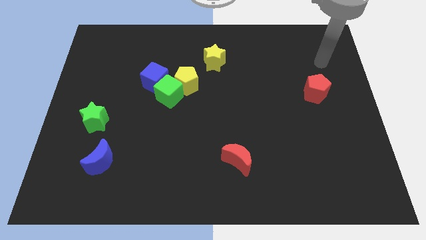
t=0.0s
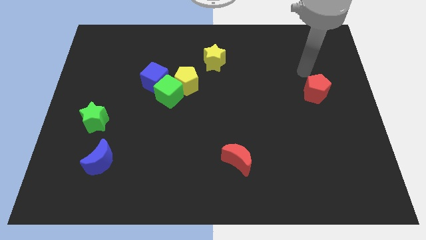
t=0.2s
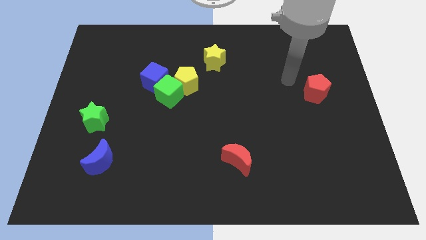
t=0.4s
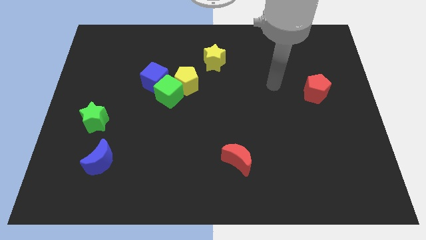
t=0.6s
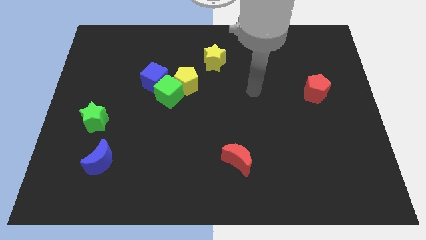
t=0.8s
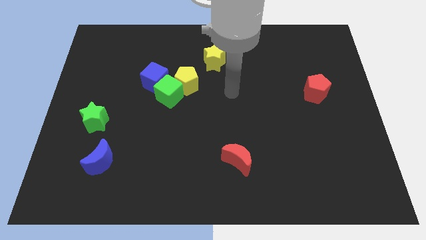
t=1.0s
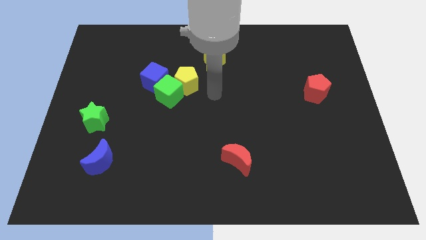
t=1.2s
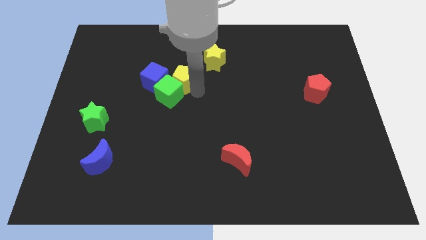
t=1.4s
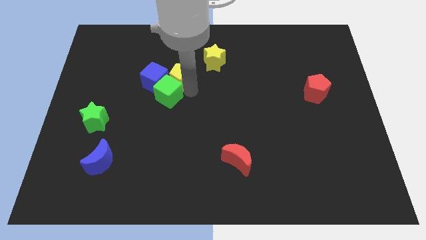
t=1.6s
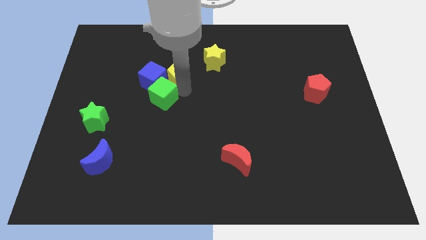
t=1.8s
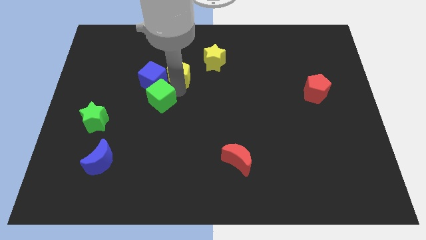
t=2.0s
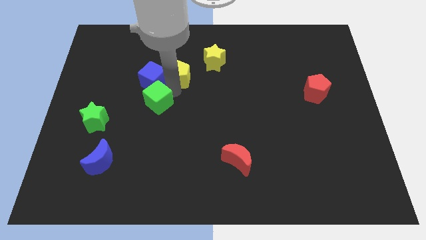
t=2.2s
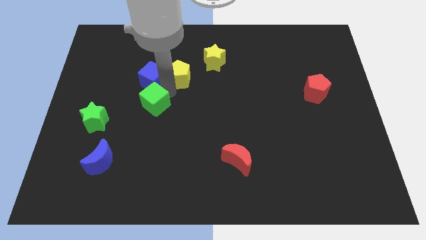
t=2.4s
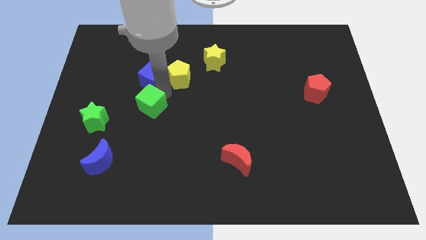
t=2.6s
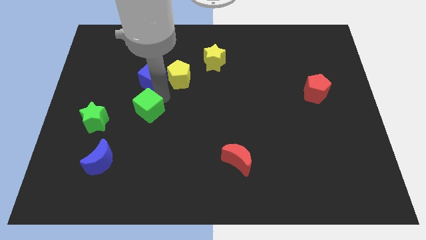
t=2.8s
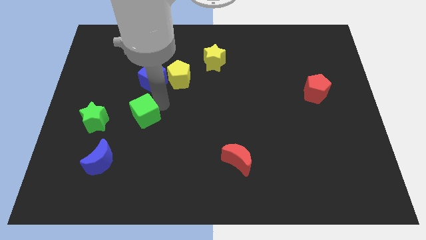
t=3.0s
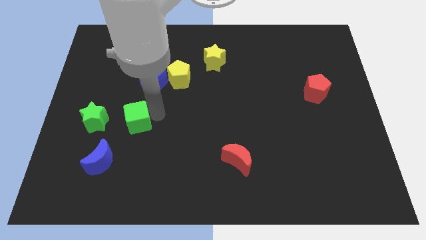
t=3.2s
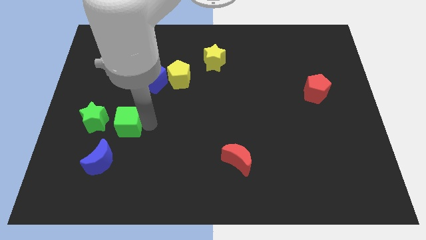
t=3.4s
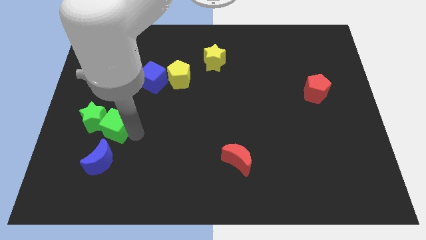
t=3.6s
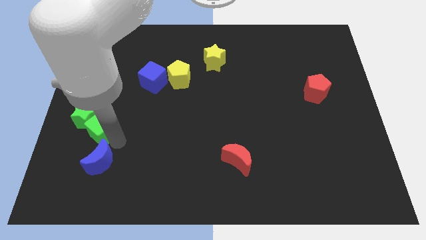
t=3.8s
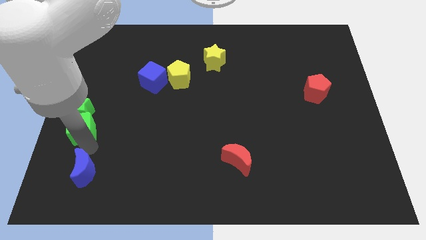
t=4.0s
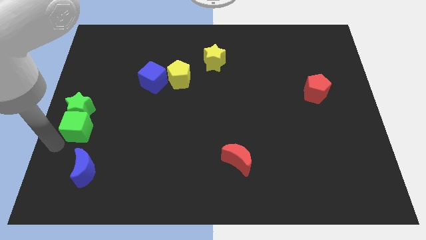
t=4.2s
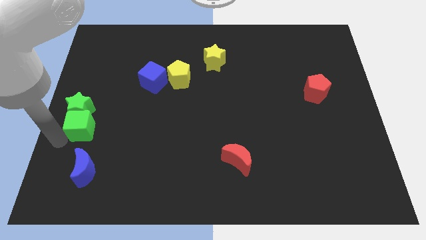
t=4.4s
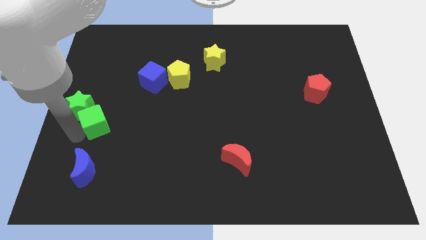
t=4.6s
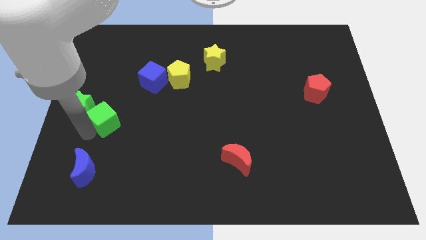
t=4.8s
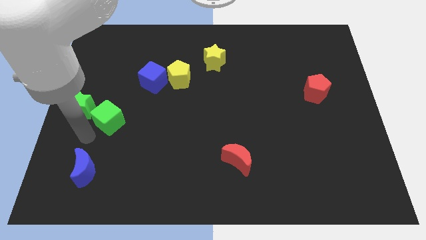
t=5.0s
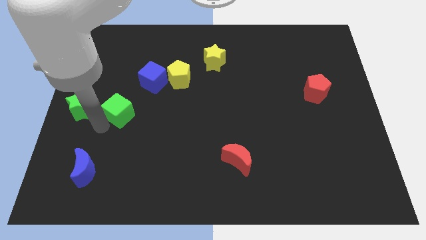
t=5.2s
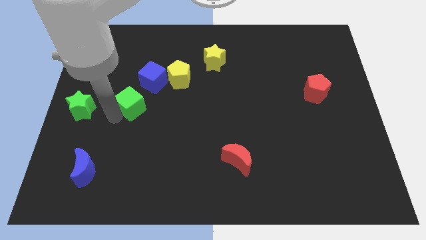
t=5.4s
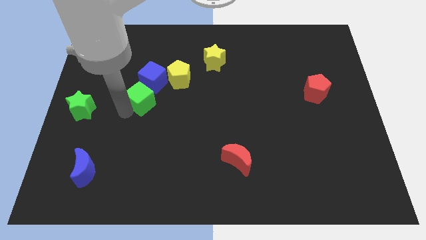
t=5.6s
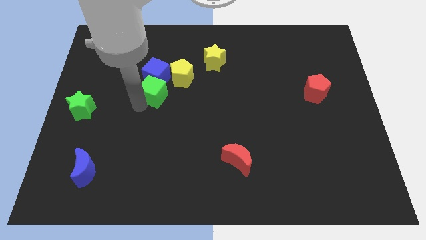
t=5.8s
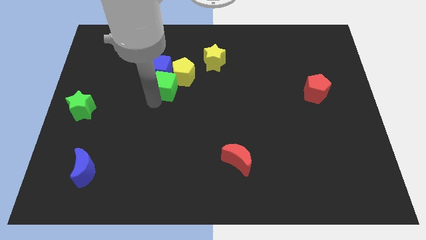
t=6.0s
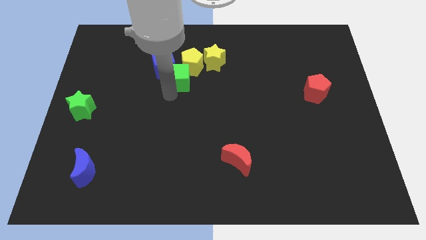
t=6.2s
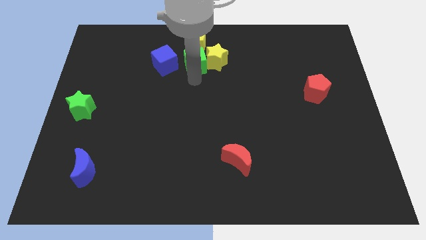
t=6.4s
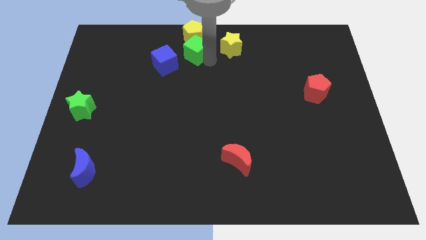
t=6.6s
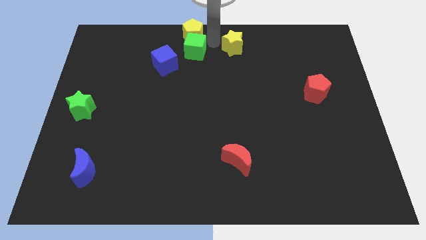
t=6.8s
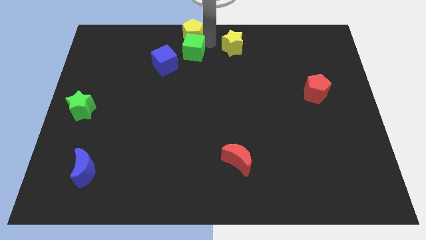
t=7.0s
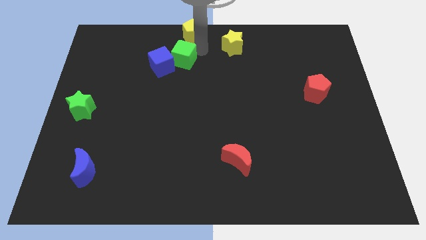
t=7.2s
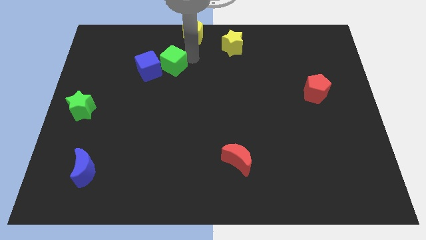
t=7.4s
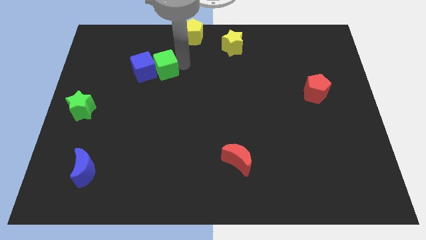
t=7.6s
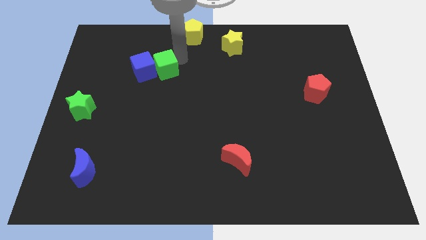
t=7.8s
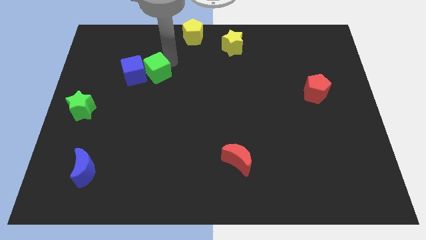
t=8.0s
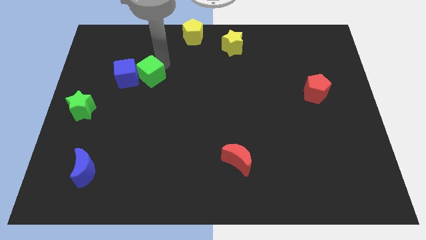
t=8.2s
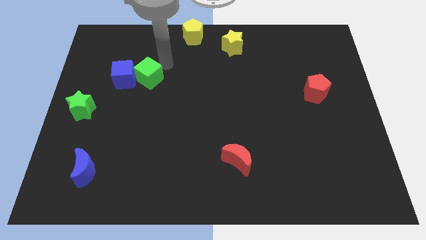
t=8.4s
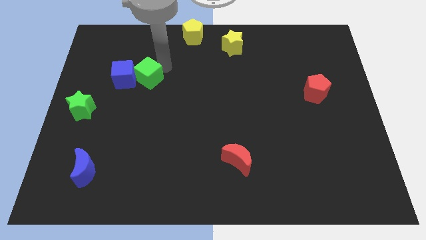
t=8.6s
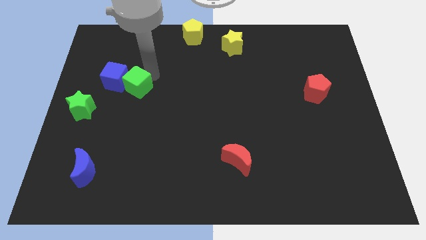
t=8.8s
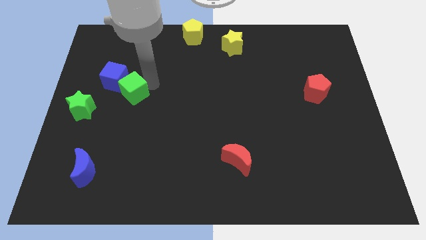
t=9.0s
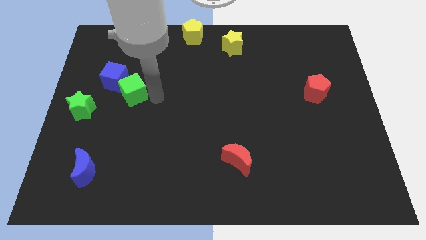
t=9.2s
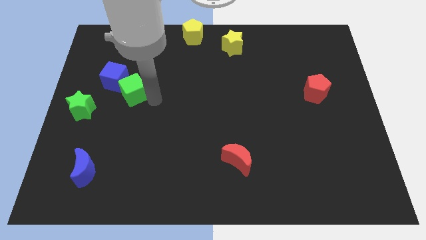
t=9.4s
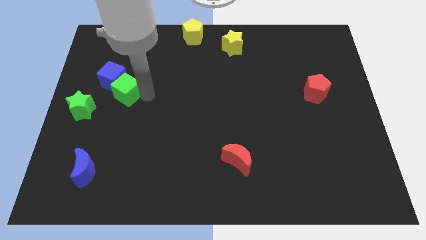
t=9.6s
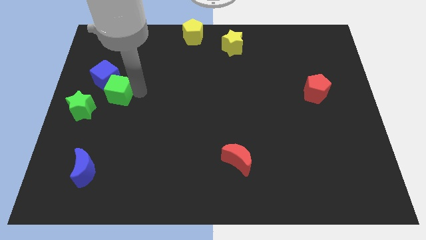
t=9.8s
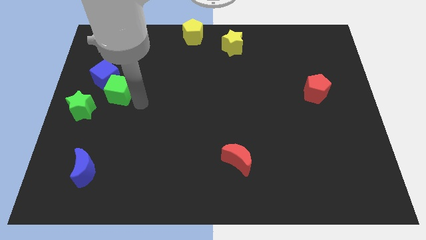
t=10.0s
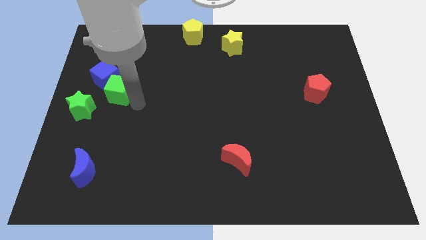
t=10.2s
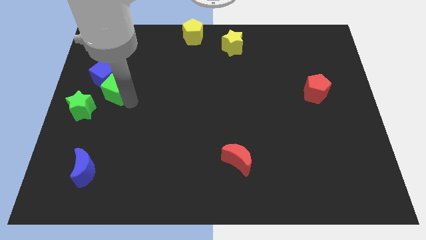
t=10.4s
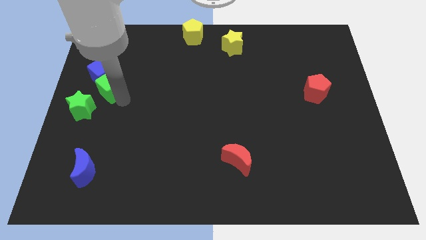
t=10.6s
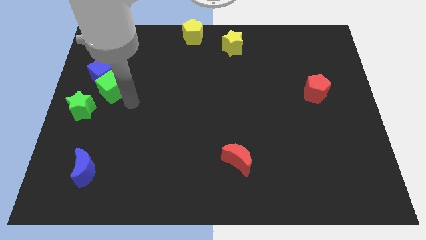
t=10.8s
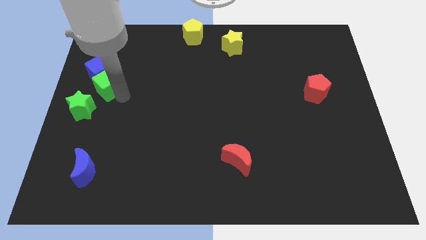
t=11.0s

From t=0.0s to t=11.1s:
push the green cube above the green star
